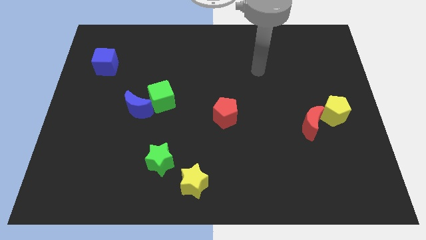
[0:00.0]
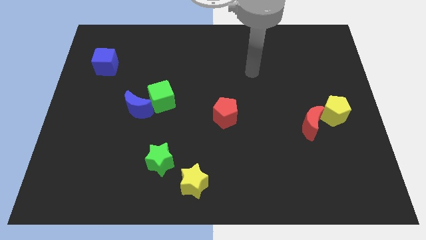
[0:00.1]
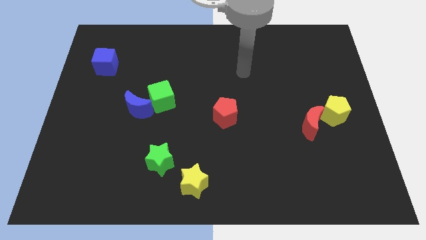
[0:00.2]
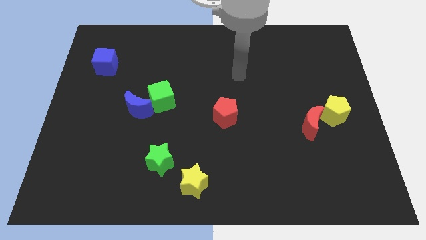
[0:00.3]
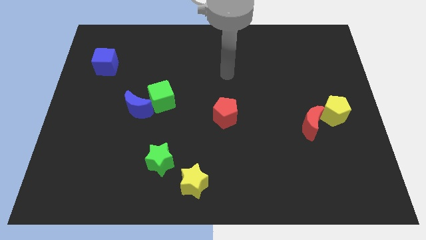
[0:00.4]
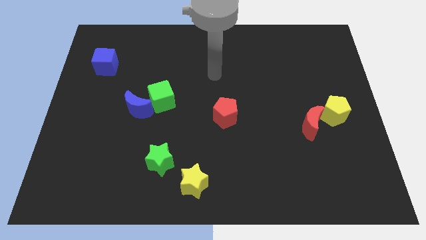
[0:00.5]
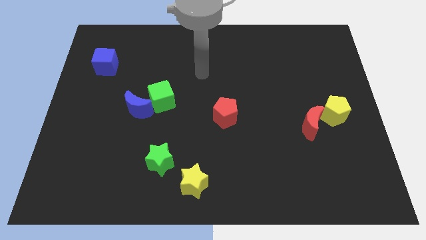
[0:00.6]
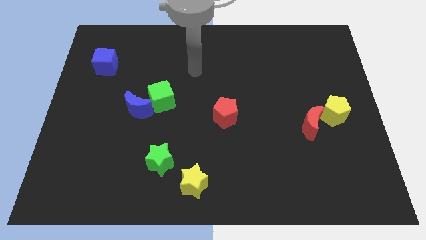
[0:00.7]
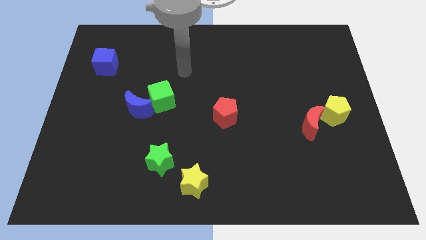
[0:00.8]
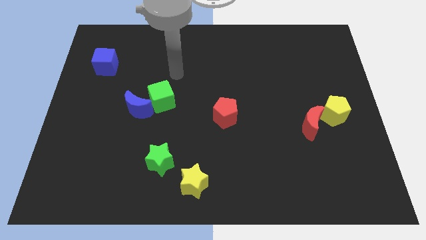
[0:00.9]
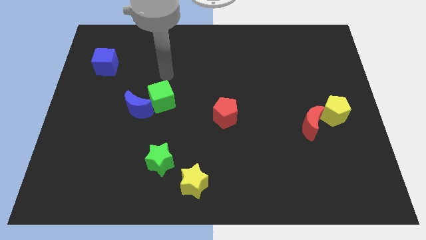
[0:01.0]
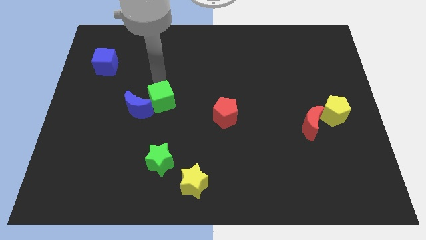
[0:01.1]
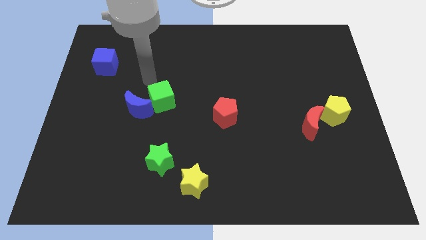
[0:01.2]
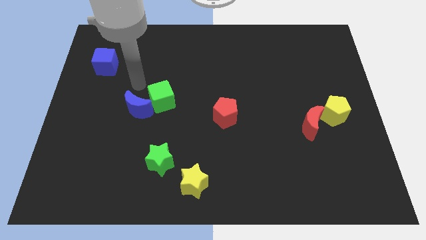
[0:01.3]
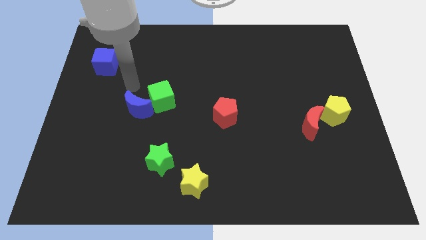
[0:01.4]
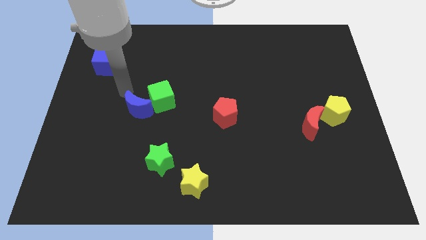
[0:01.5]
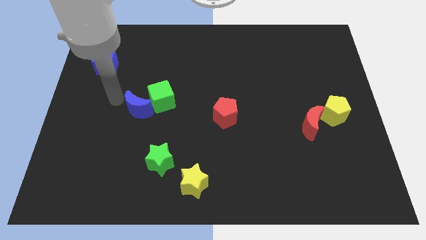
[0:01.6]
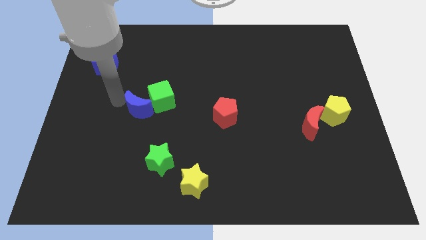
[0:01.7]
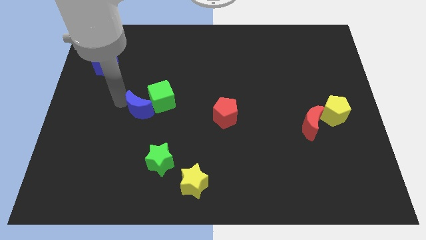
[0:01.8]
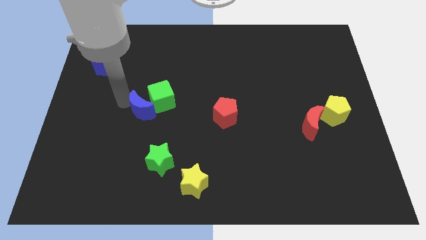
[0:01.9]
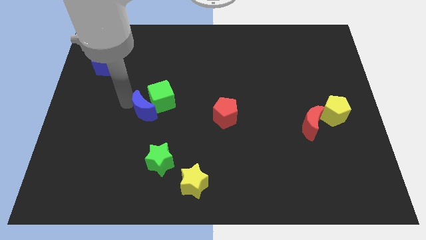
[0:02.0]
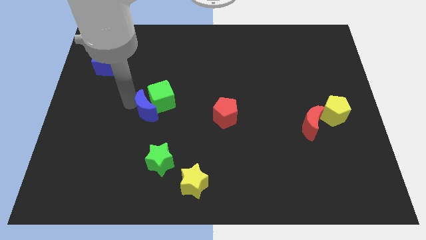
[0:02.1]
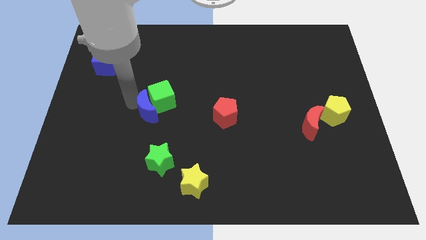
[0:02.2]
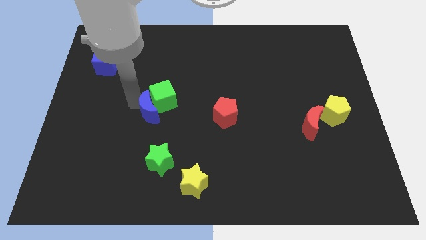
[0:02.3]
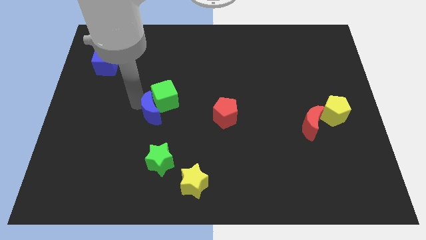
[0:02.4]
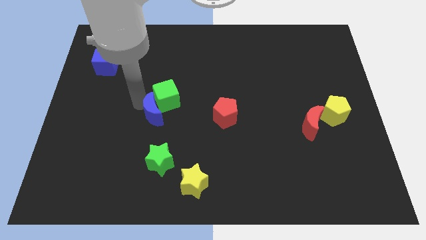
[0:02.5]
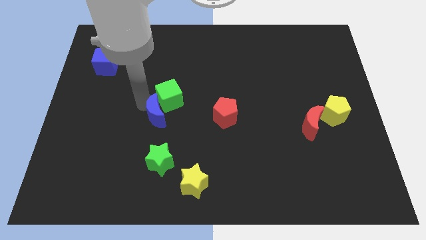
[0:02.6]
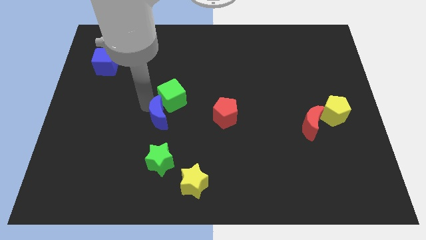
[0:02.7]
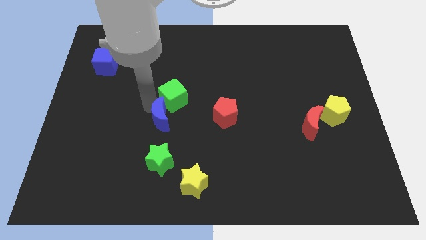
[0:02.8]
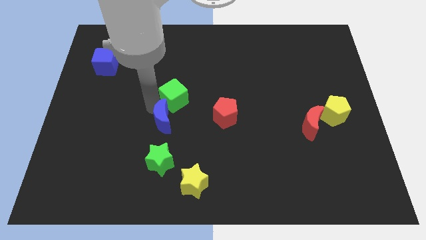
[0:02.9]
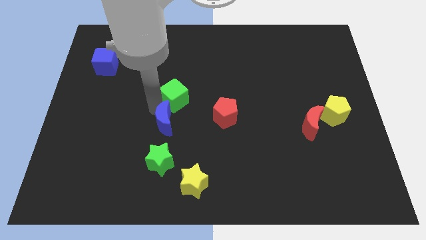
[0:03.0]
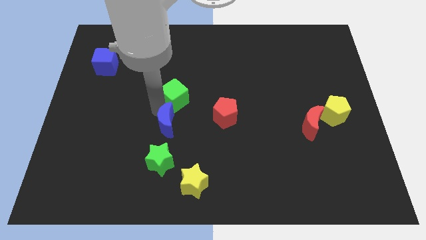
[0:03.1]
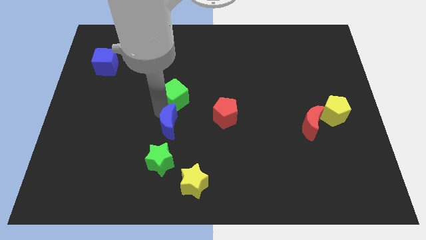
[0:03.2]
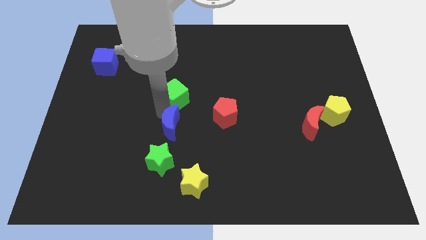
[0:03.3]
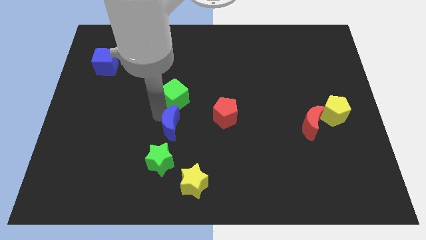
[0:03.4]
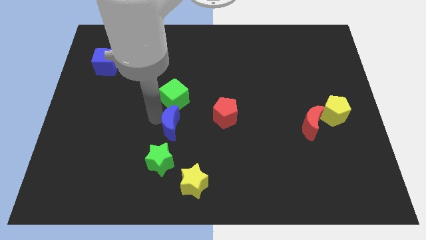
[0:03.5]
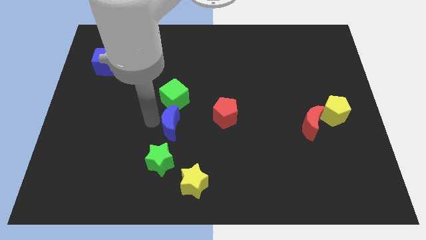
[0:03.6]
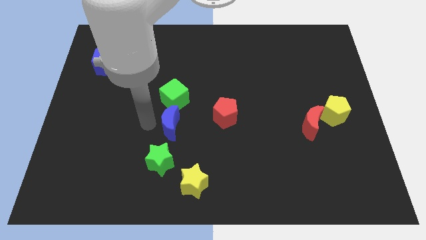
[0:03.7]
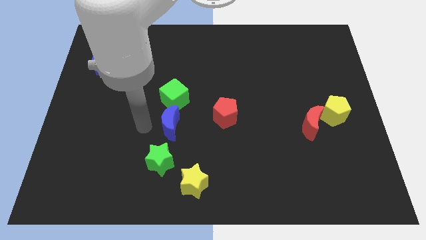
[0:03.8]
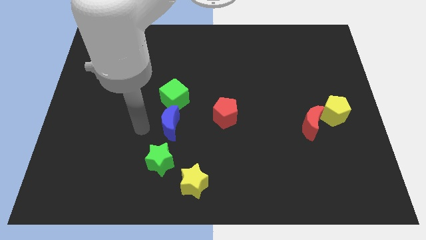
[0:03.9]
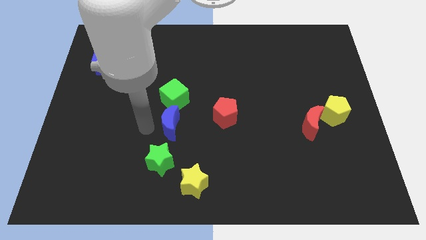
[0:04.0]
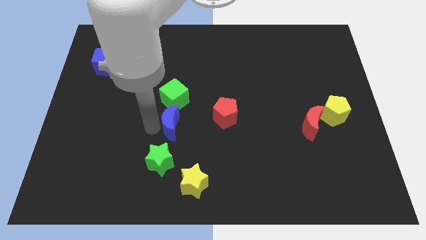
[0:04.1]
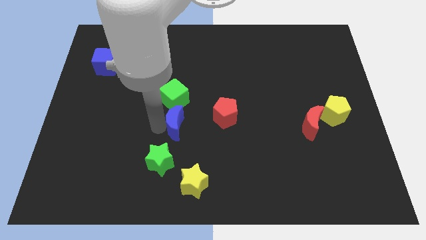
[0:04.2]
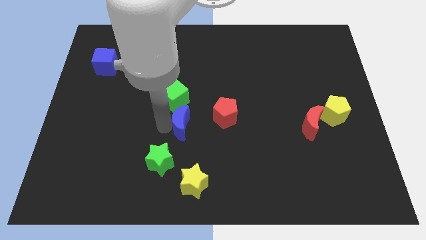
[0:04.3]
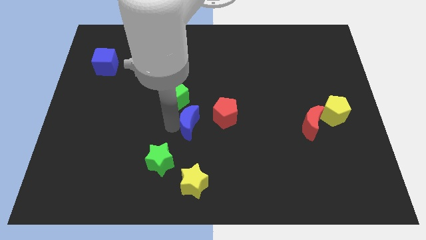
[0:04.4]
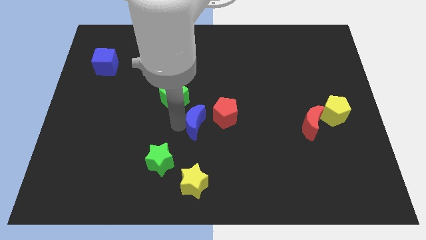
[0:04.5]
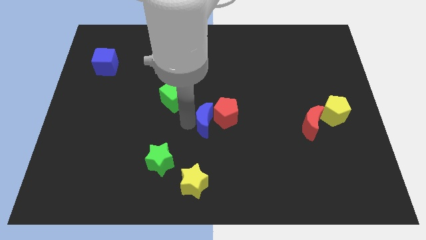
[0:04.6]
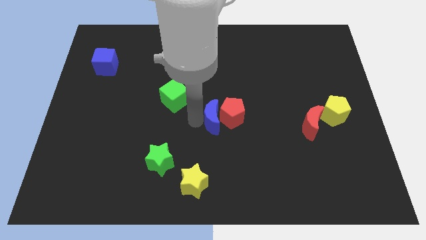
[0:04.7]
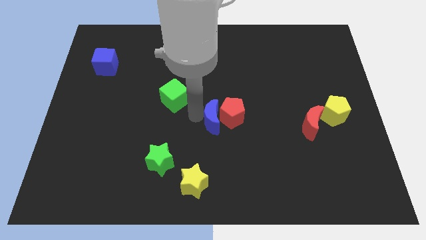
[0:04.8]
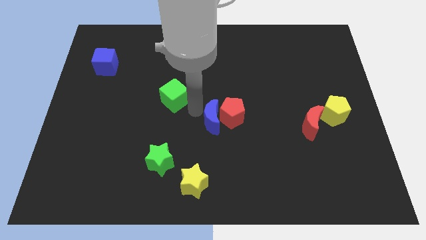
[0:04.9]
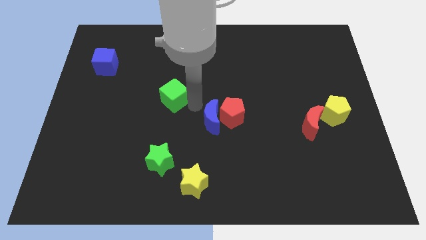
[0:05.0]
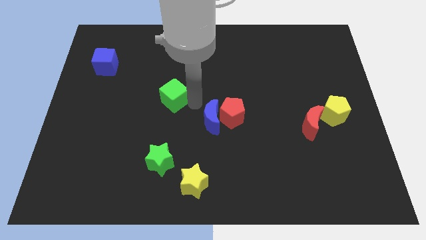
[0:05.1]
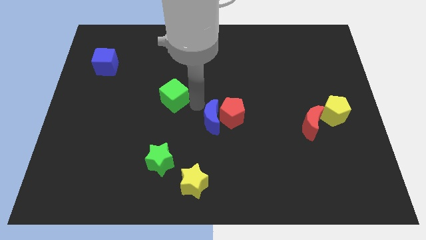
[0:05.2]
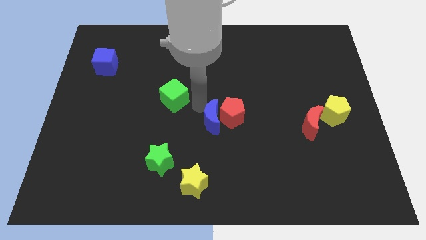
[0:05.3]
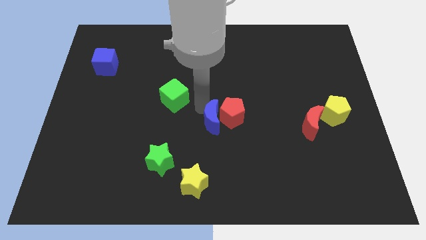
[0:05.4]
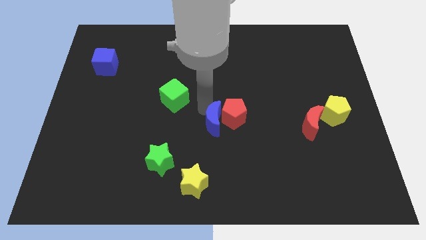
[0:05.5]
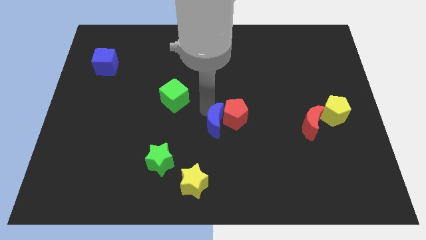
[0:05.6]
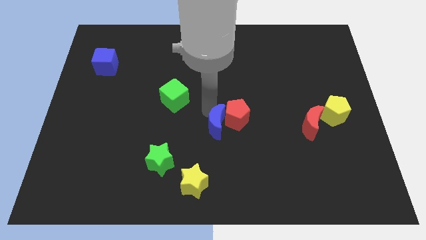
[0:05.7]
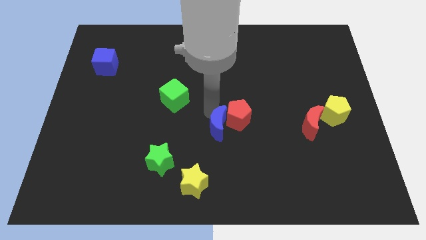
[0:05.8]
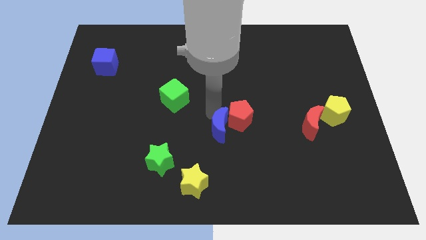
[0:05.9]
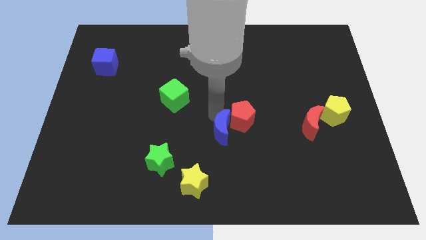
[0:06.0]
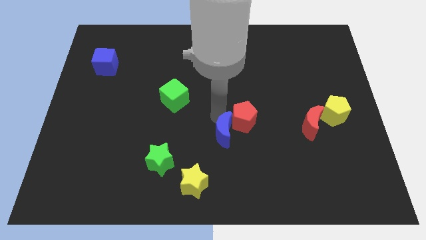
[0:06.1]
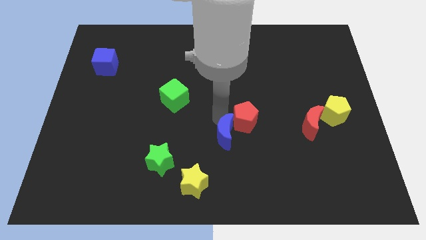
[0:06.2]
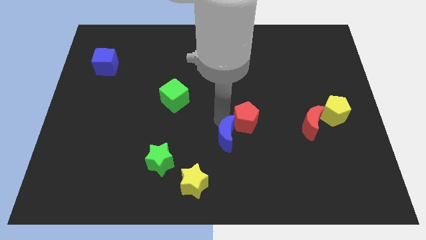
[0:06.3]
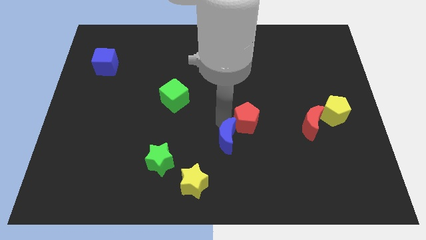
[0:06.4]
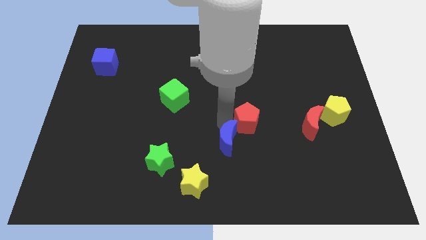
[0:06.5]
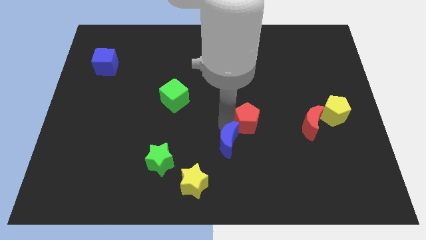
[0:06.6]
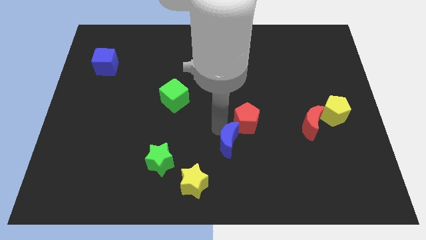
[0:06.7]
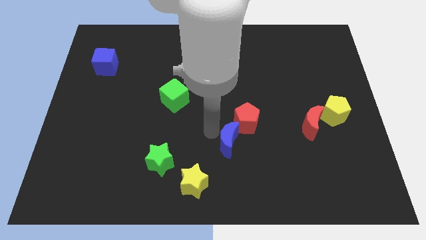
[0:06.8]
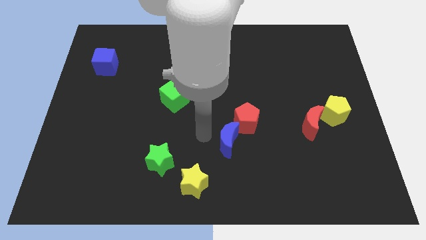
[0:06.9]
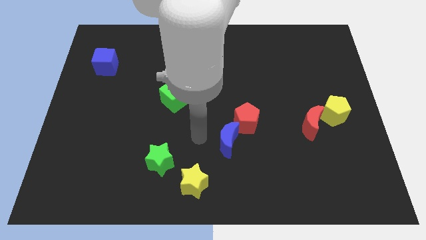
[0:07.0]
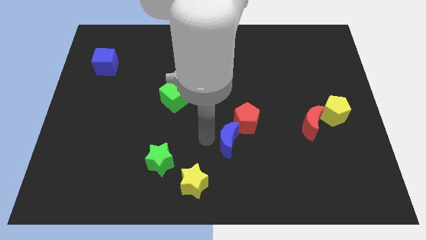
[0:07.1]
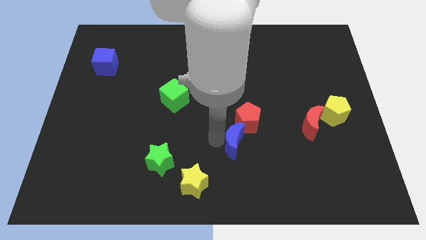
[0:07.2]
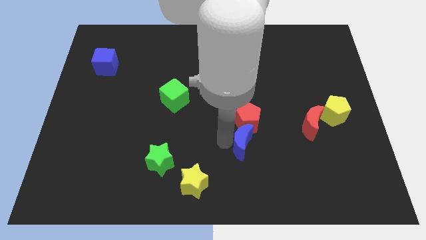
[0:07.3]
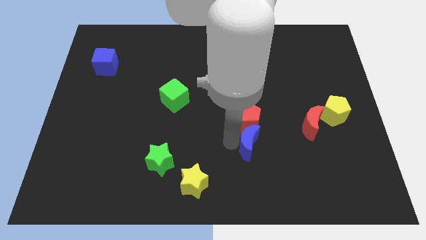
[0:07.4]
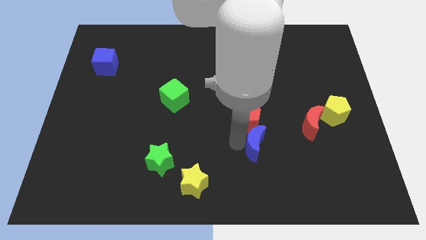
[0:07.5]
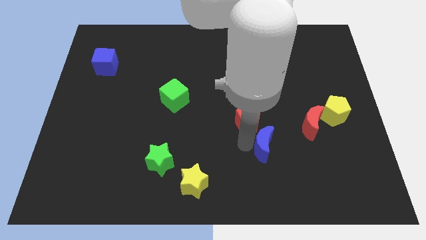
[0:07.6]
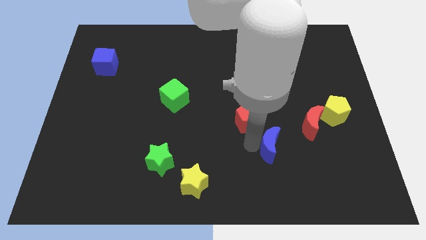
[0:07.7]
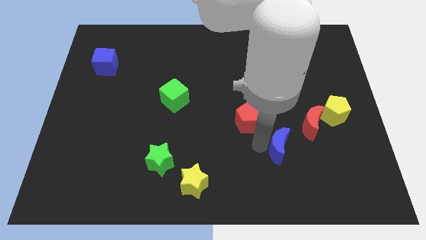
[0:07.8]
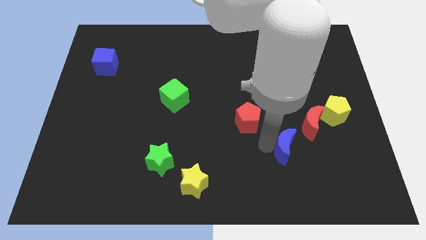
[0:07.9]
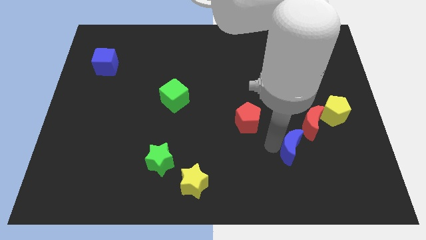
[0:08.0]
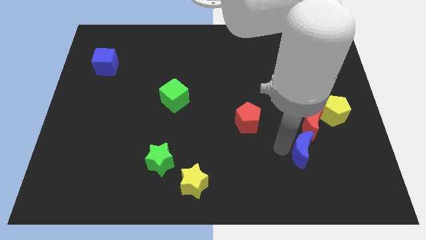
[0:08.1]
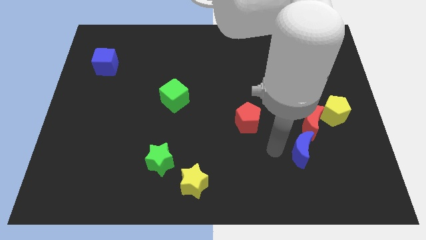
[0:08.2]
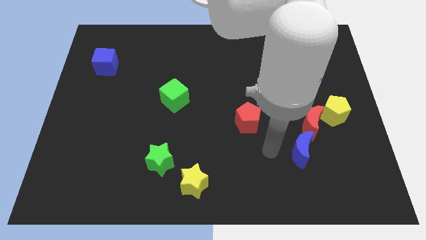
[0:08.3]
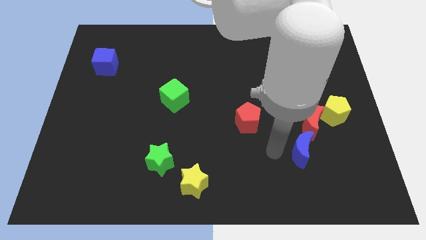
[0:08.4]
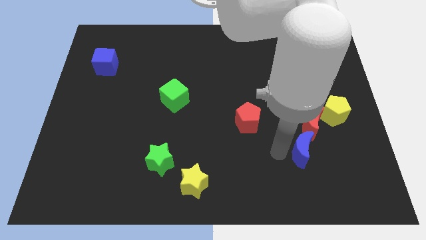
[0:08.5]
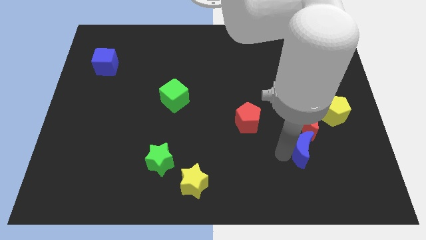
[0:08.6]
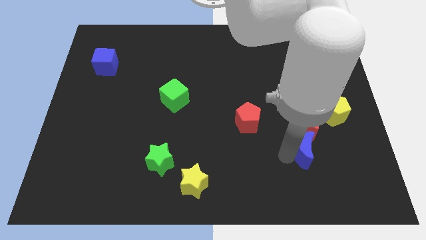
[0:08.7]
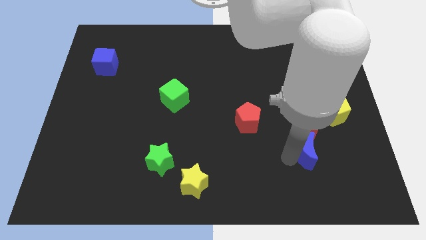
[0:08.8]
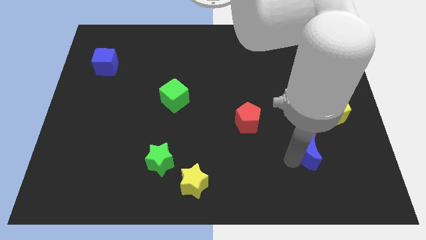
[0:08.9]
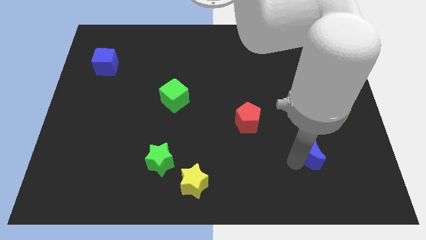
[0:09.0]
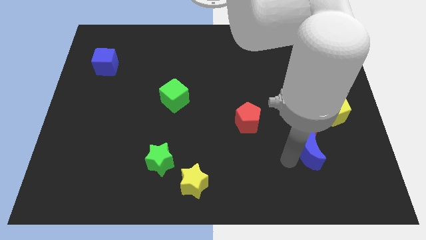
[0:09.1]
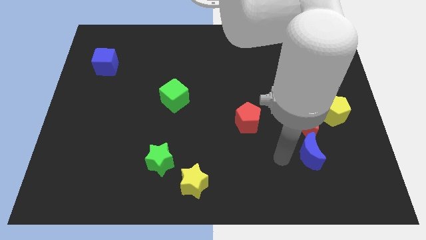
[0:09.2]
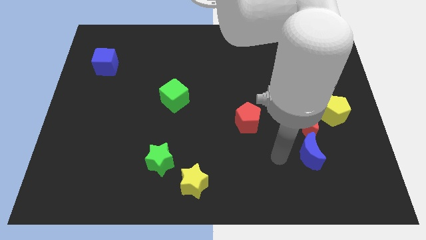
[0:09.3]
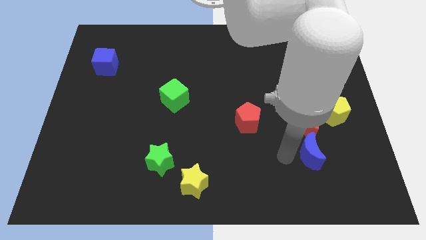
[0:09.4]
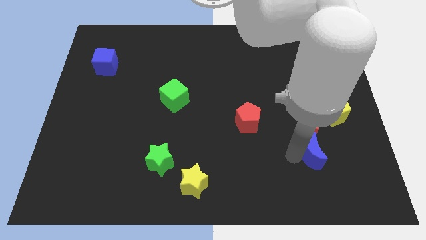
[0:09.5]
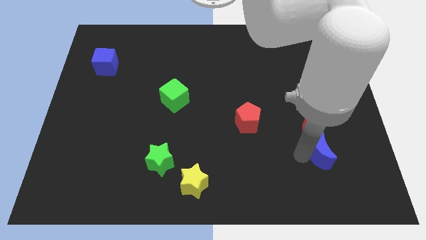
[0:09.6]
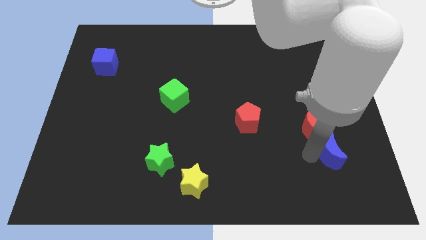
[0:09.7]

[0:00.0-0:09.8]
move the blue moon to the bottom of the yellow pentagon
